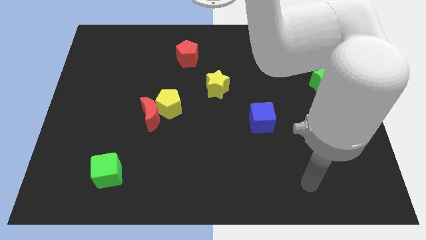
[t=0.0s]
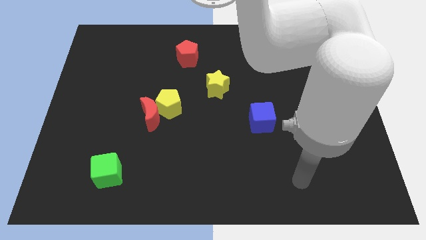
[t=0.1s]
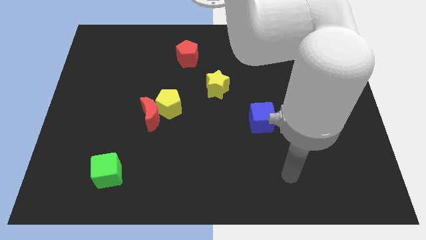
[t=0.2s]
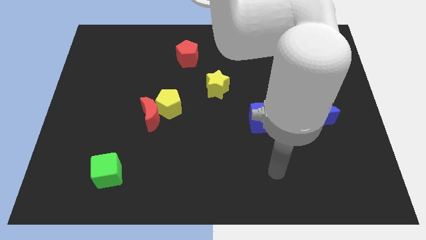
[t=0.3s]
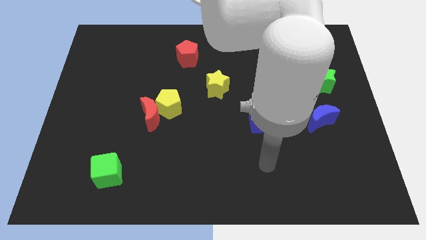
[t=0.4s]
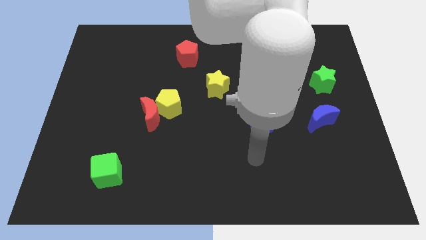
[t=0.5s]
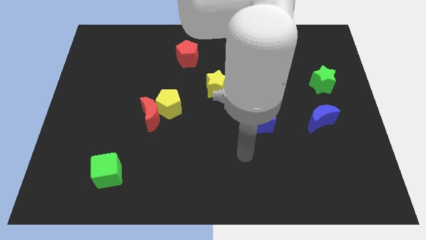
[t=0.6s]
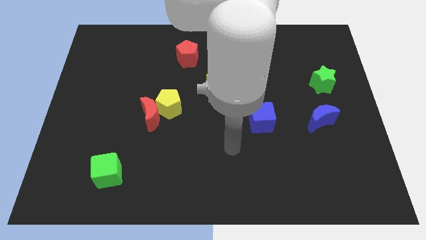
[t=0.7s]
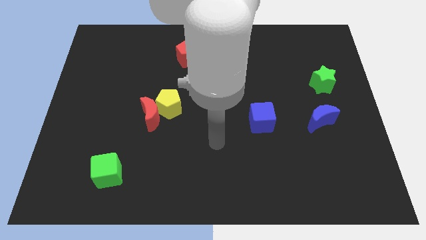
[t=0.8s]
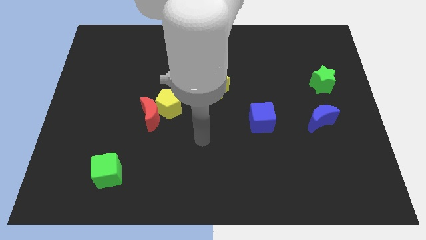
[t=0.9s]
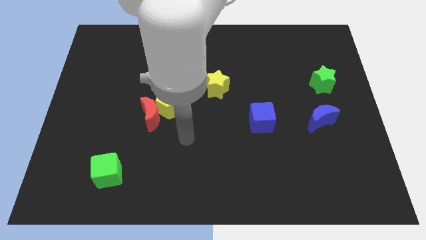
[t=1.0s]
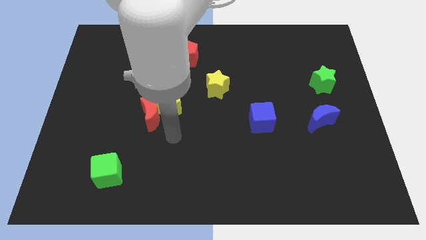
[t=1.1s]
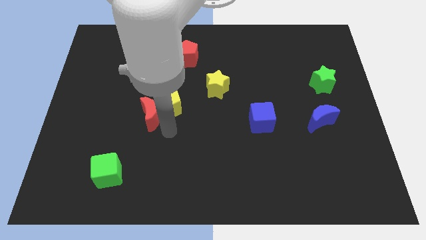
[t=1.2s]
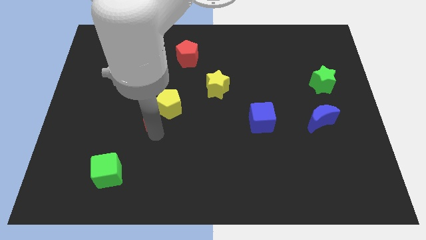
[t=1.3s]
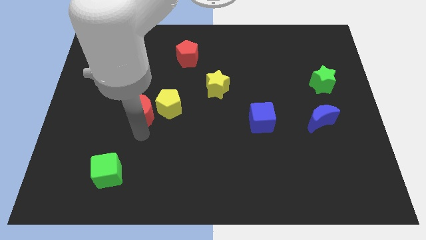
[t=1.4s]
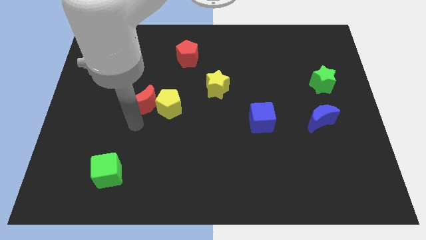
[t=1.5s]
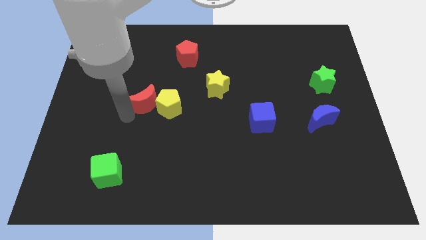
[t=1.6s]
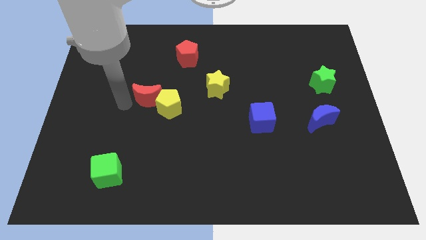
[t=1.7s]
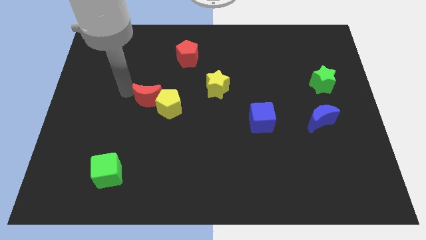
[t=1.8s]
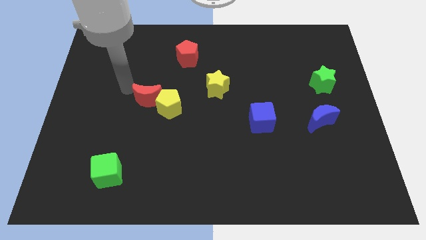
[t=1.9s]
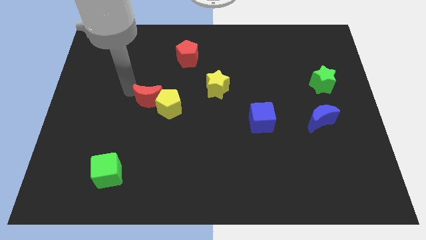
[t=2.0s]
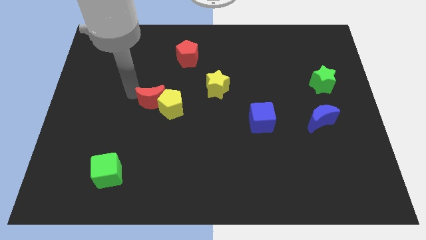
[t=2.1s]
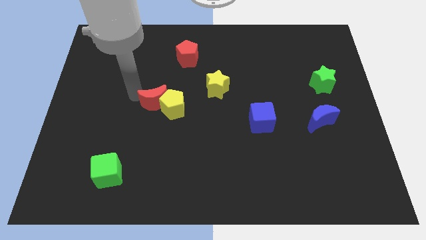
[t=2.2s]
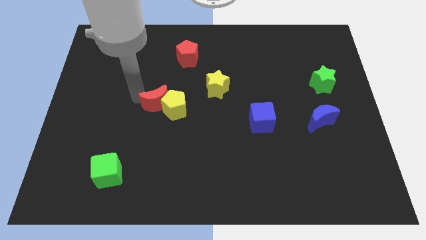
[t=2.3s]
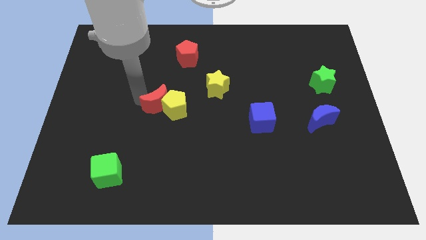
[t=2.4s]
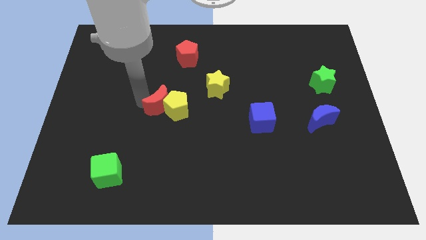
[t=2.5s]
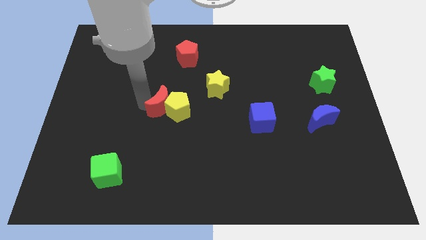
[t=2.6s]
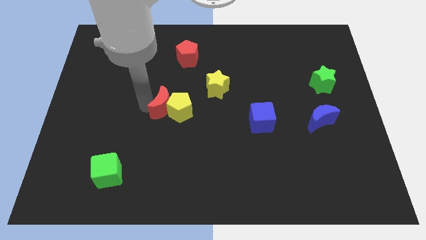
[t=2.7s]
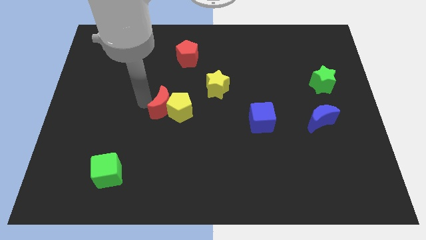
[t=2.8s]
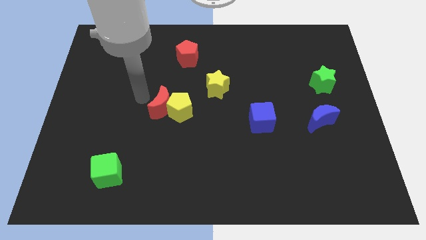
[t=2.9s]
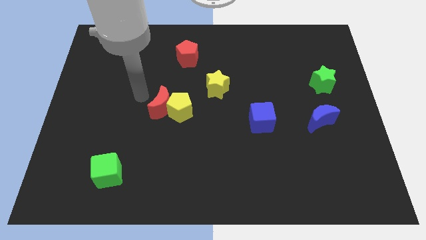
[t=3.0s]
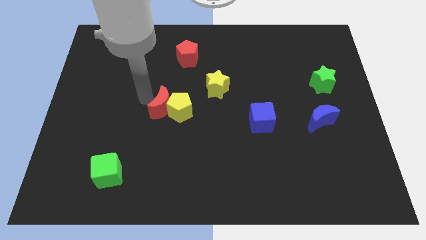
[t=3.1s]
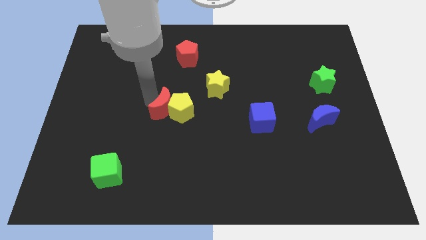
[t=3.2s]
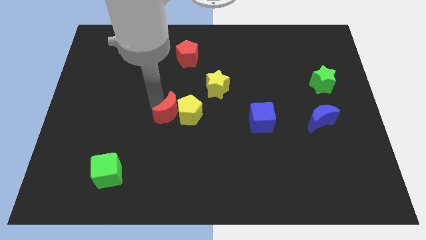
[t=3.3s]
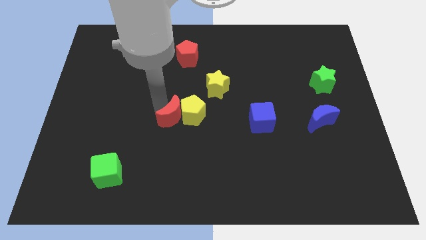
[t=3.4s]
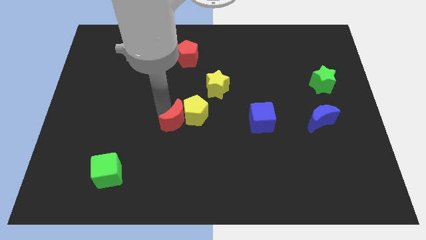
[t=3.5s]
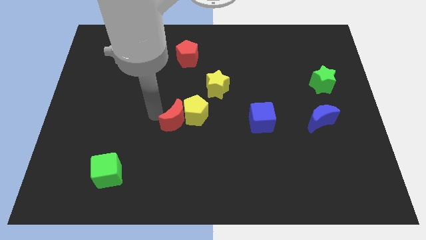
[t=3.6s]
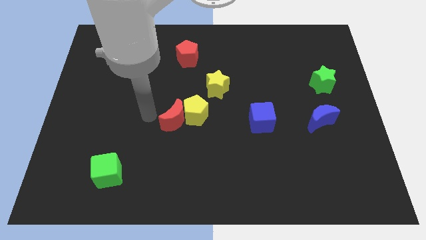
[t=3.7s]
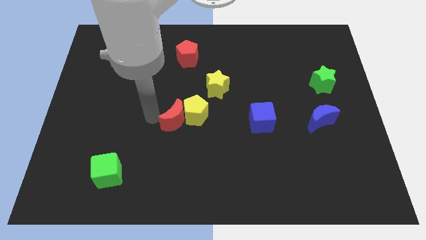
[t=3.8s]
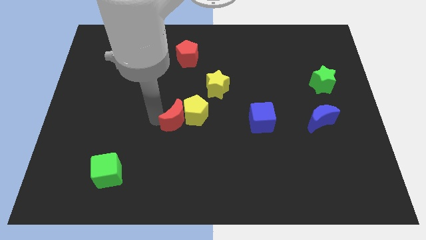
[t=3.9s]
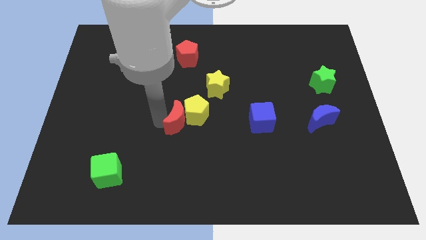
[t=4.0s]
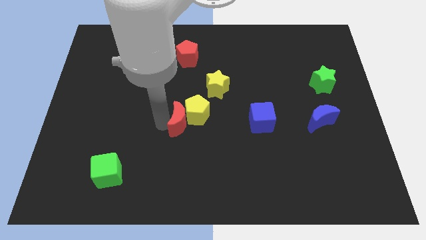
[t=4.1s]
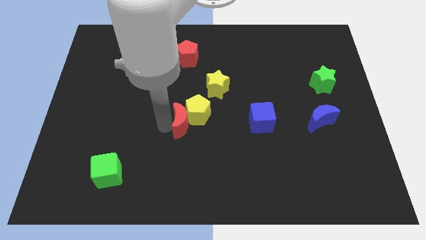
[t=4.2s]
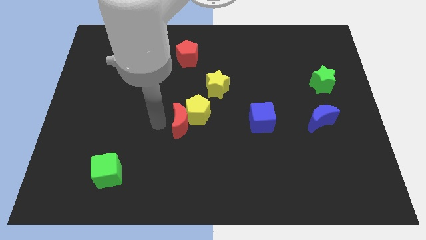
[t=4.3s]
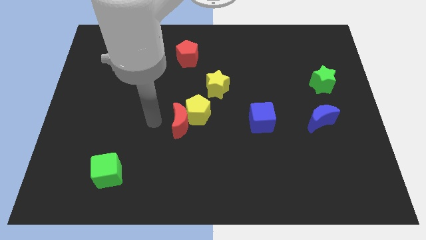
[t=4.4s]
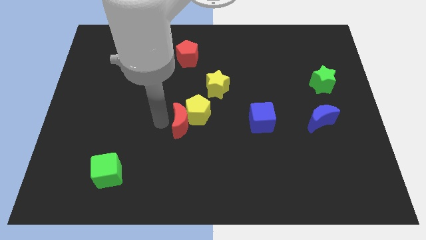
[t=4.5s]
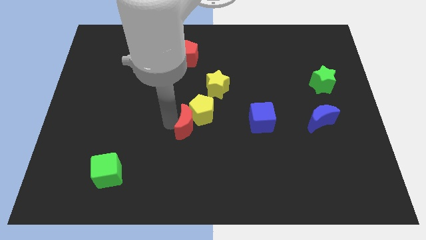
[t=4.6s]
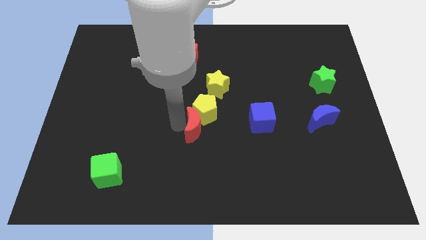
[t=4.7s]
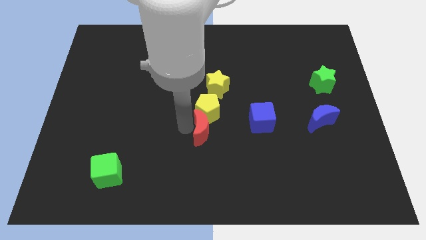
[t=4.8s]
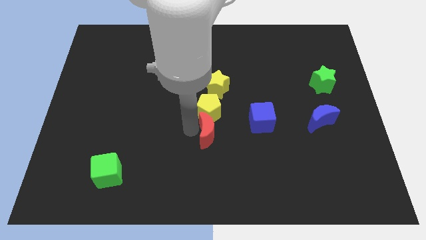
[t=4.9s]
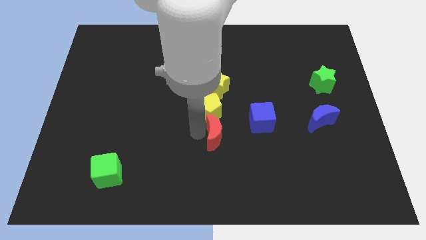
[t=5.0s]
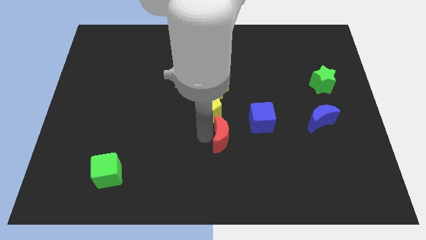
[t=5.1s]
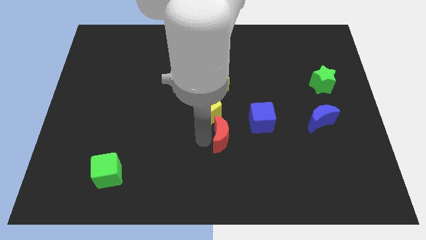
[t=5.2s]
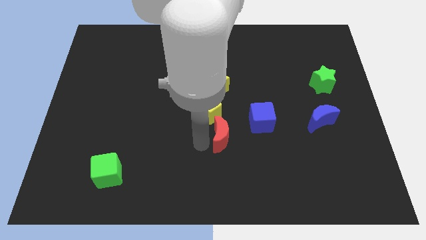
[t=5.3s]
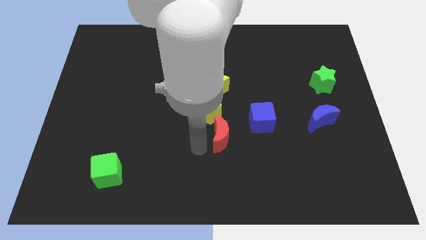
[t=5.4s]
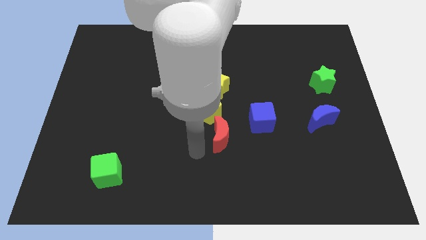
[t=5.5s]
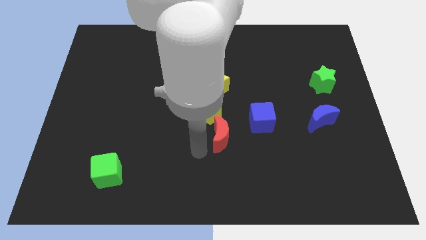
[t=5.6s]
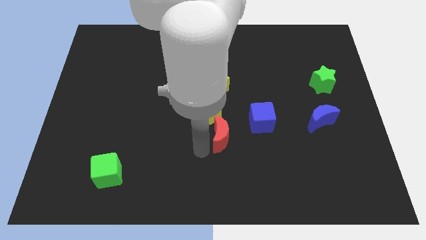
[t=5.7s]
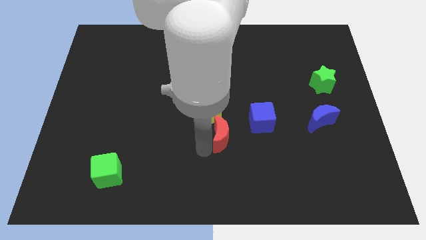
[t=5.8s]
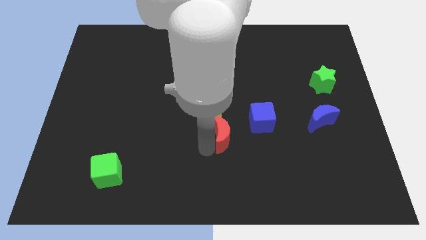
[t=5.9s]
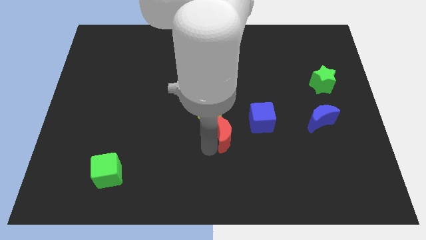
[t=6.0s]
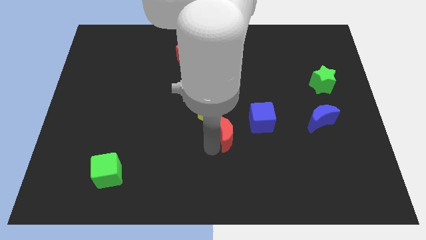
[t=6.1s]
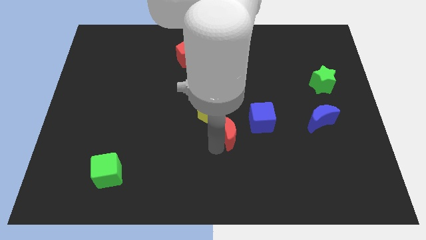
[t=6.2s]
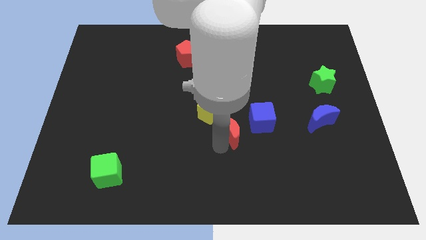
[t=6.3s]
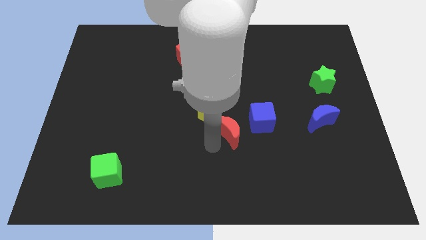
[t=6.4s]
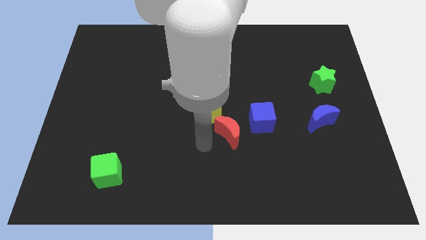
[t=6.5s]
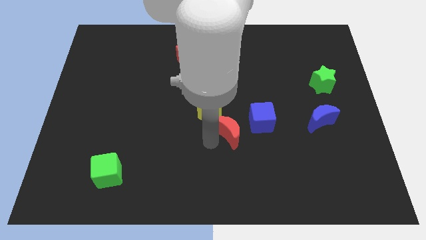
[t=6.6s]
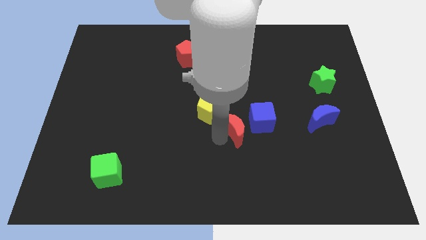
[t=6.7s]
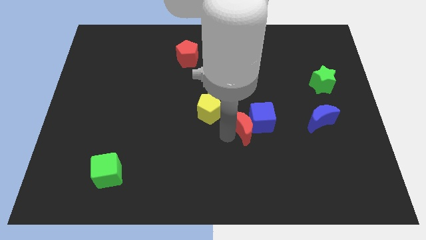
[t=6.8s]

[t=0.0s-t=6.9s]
slide the red moon close to the blue cube

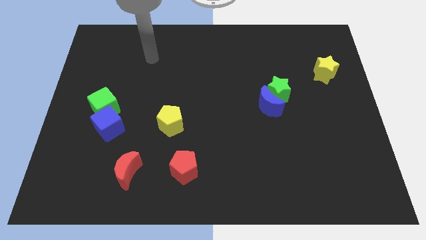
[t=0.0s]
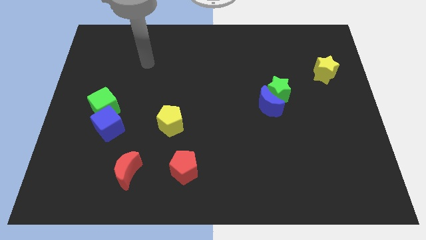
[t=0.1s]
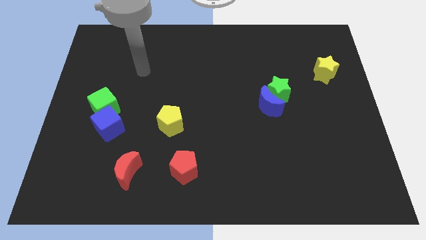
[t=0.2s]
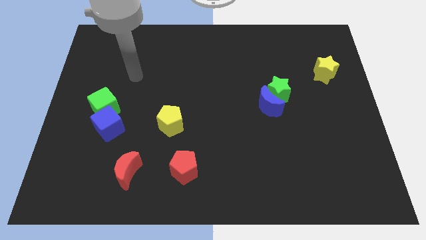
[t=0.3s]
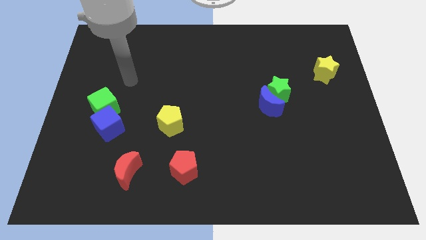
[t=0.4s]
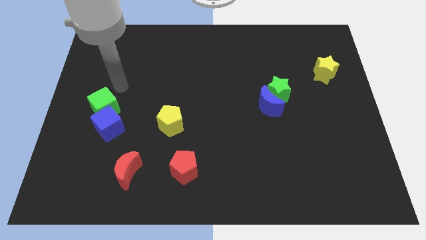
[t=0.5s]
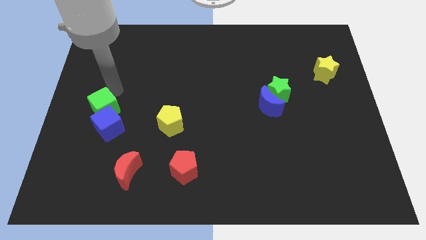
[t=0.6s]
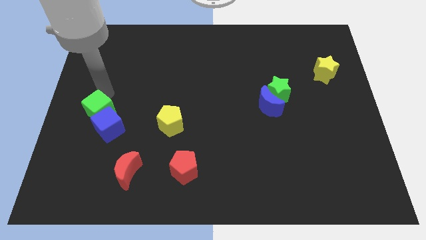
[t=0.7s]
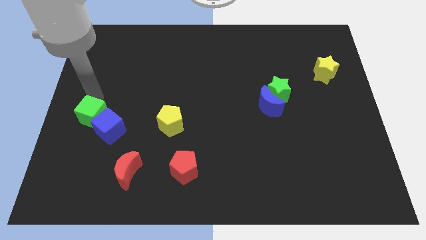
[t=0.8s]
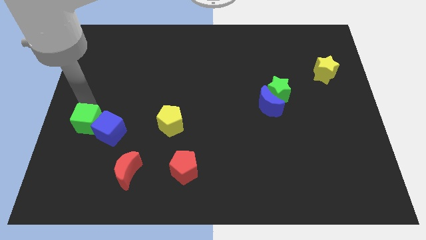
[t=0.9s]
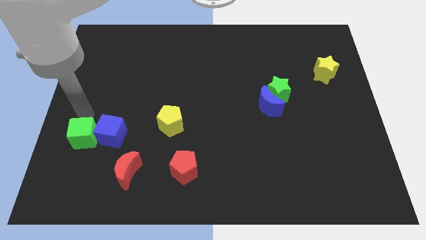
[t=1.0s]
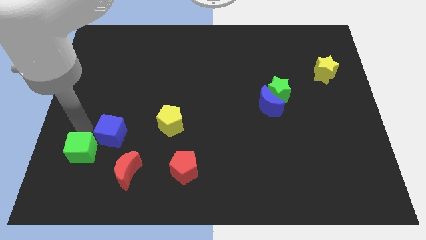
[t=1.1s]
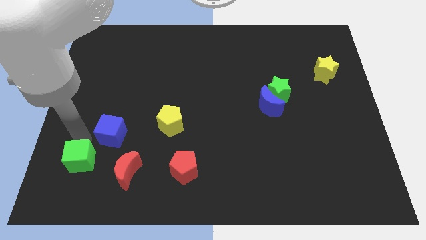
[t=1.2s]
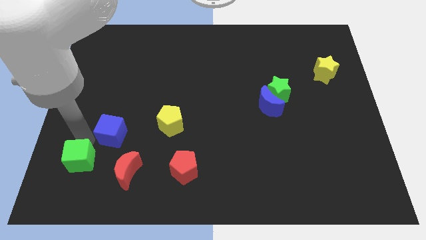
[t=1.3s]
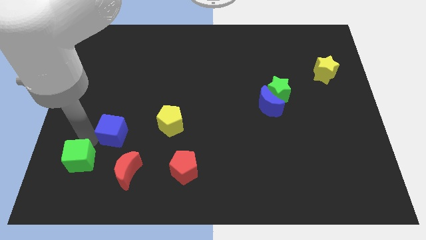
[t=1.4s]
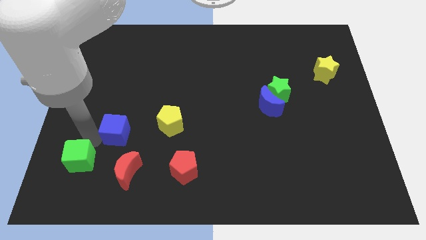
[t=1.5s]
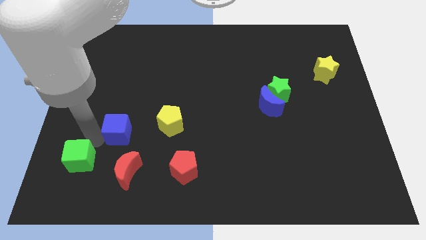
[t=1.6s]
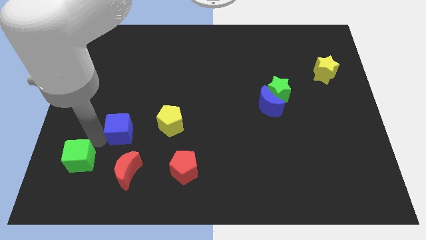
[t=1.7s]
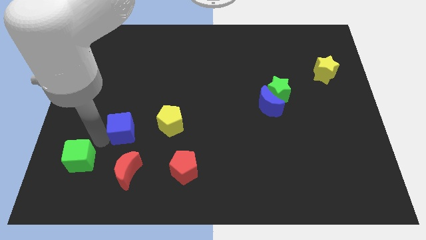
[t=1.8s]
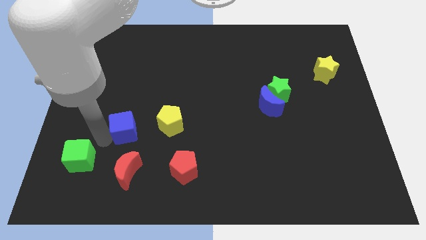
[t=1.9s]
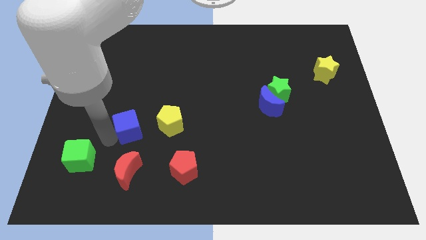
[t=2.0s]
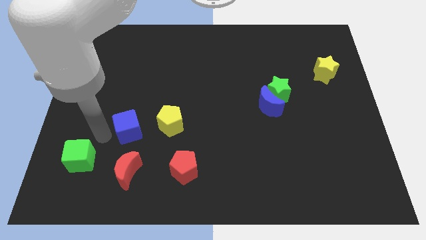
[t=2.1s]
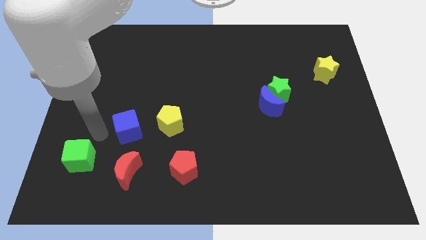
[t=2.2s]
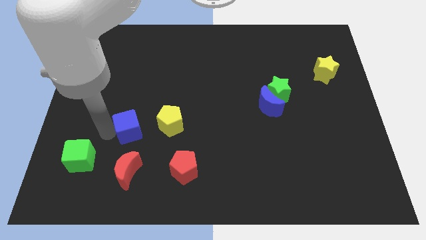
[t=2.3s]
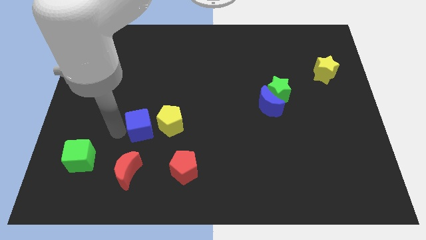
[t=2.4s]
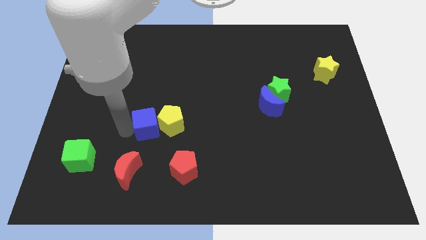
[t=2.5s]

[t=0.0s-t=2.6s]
slide the blue cube towards the yellow pentagon
